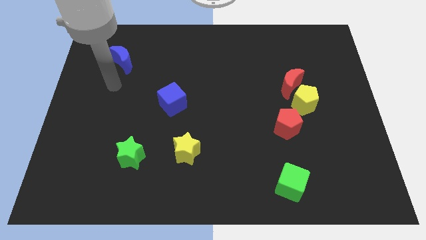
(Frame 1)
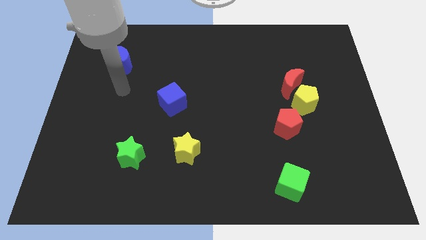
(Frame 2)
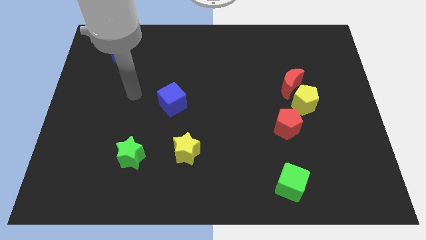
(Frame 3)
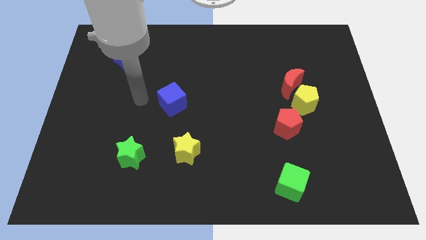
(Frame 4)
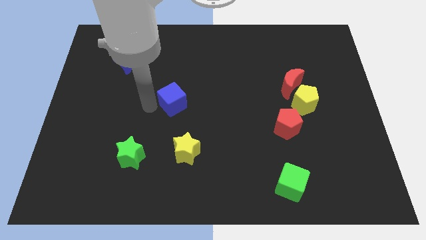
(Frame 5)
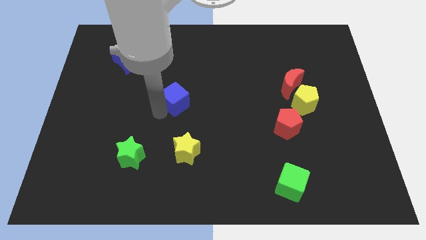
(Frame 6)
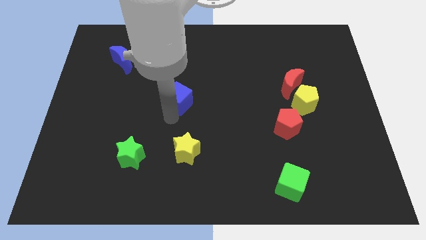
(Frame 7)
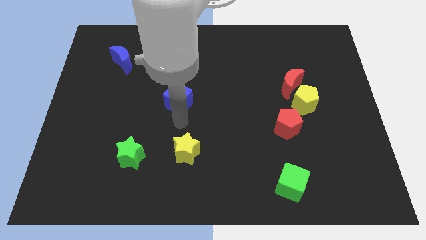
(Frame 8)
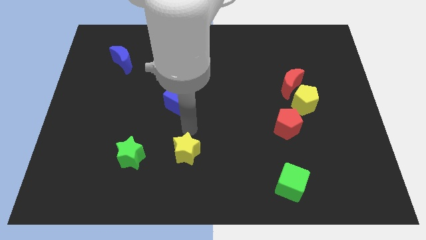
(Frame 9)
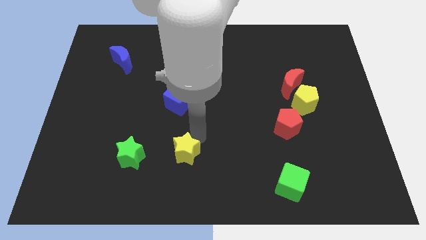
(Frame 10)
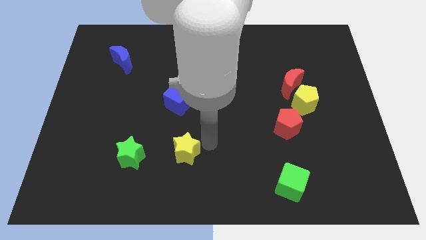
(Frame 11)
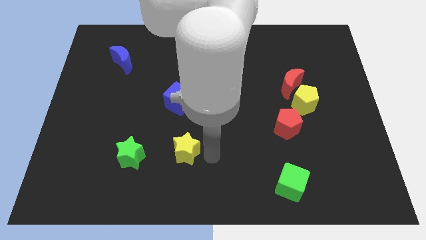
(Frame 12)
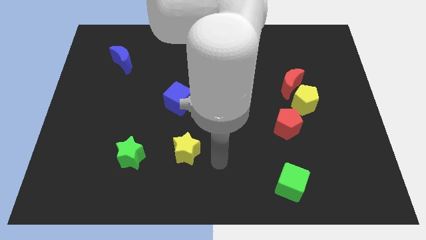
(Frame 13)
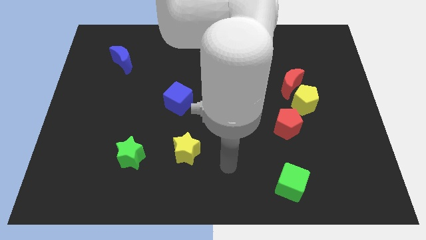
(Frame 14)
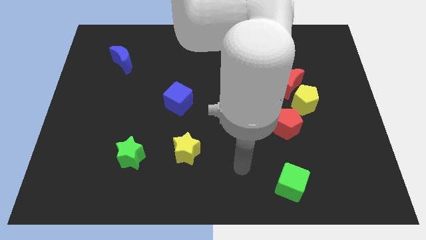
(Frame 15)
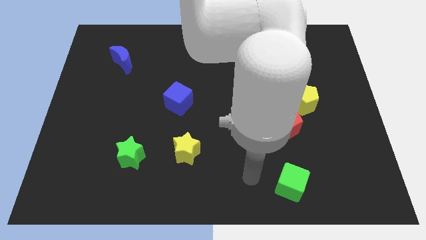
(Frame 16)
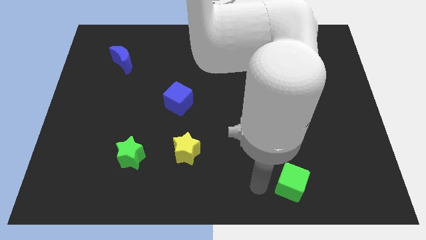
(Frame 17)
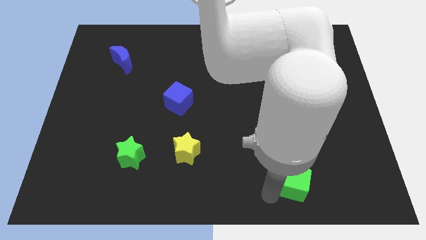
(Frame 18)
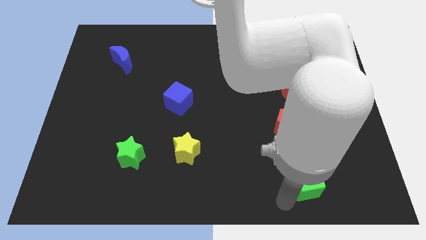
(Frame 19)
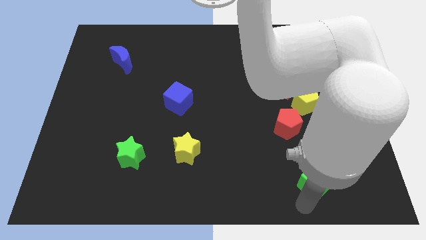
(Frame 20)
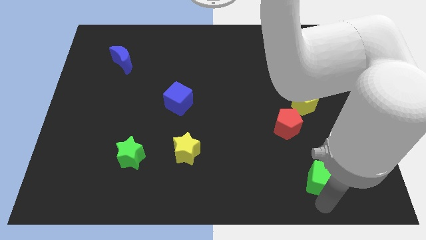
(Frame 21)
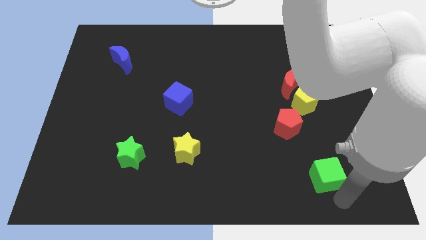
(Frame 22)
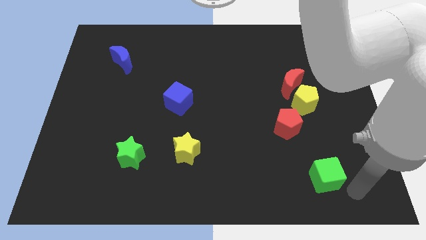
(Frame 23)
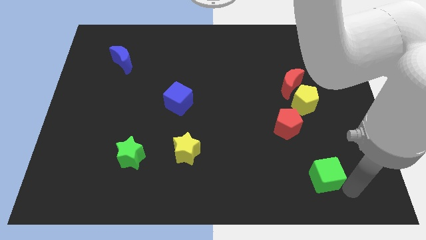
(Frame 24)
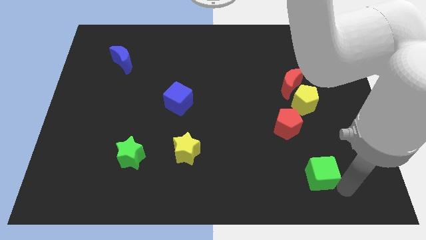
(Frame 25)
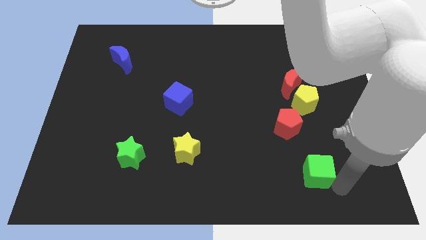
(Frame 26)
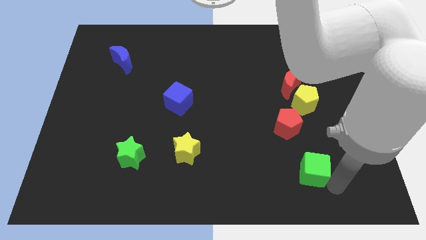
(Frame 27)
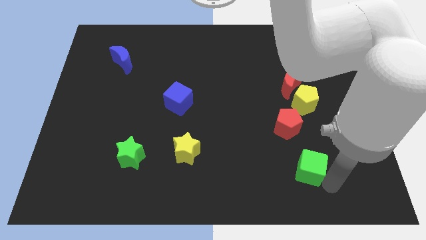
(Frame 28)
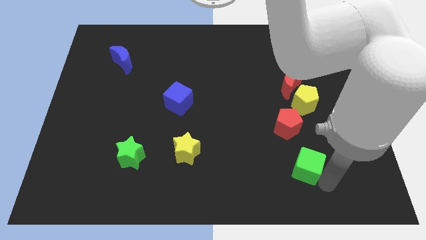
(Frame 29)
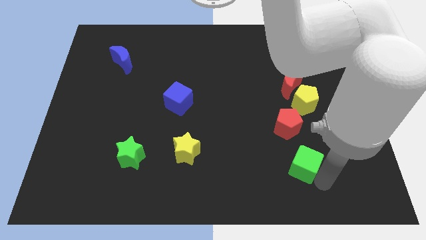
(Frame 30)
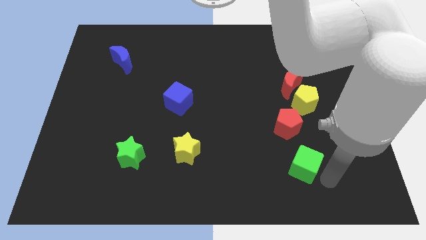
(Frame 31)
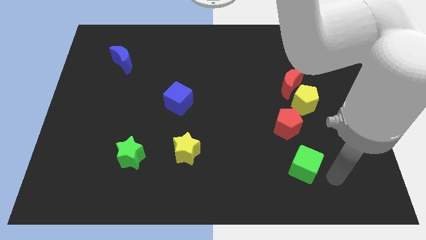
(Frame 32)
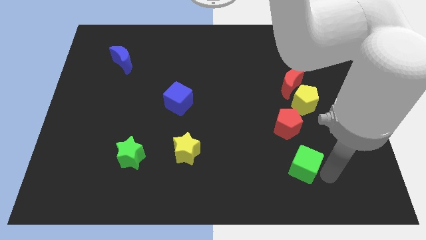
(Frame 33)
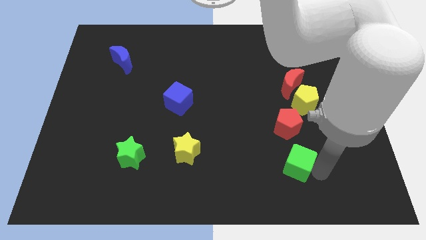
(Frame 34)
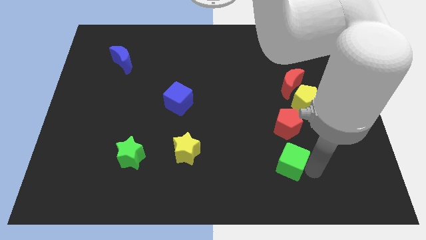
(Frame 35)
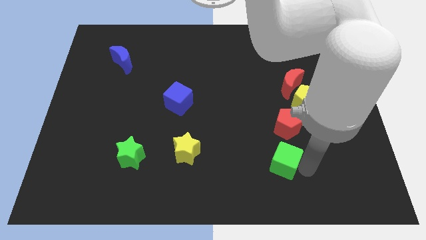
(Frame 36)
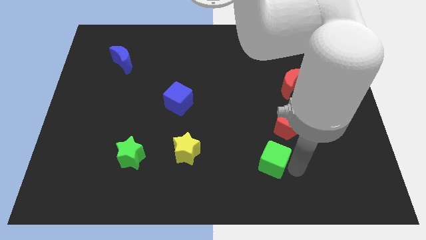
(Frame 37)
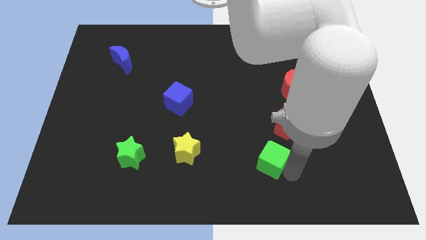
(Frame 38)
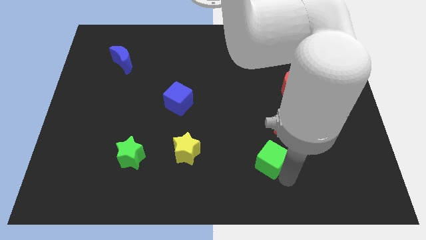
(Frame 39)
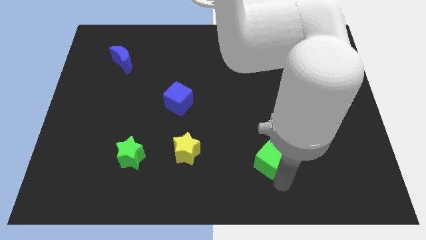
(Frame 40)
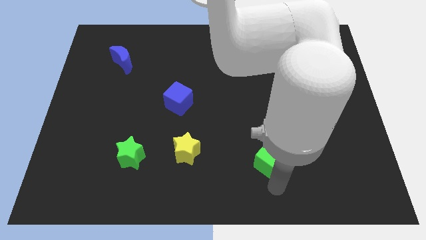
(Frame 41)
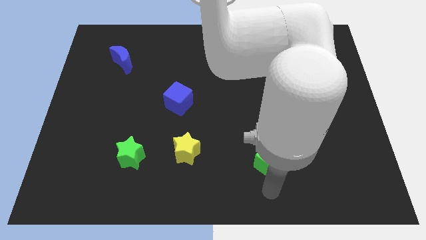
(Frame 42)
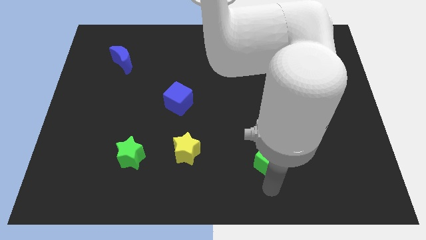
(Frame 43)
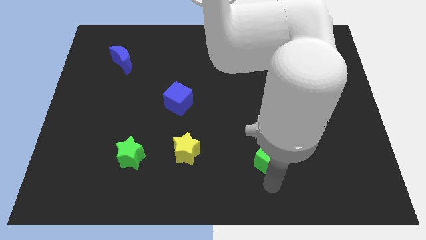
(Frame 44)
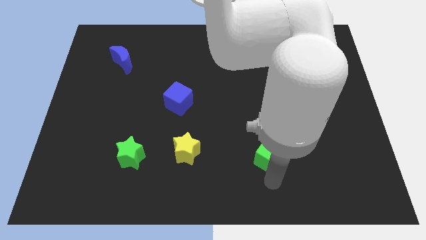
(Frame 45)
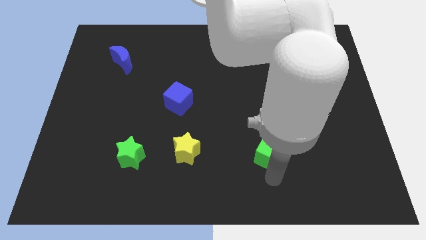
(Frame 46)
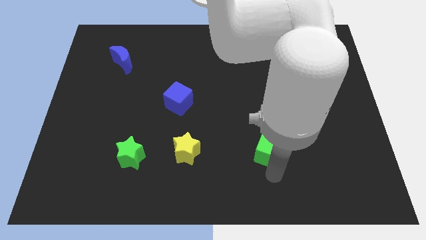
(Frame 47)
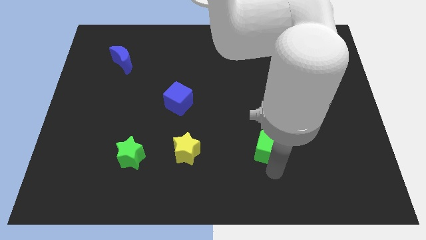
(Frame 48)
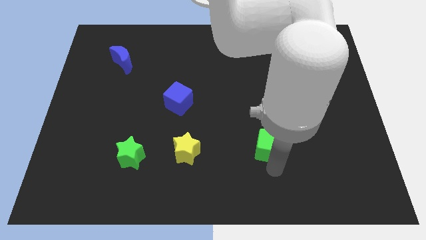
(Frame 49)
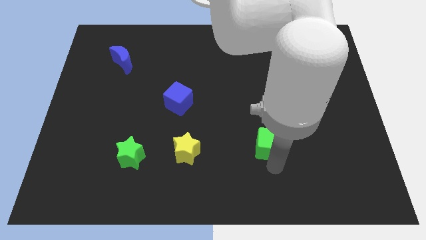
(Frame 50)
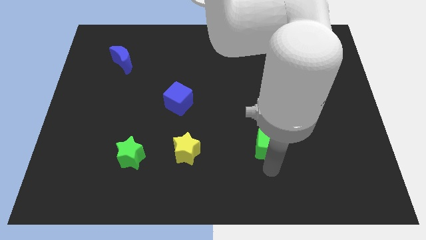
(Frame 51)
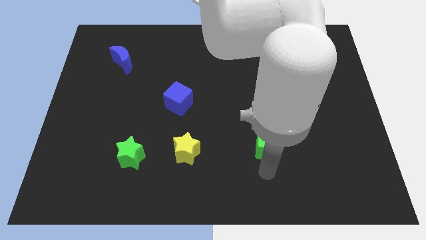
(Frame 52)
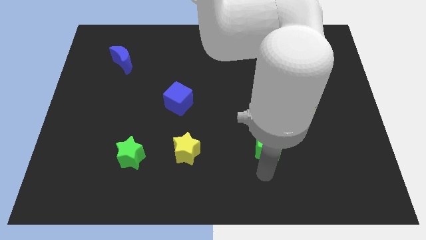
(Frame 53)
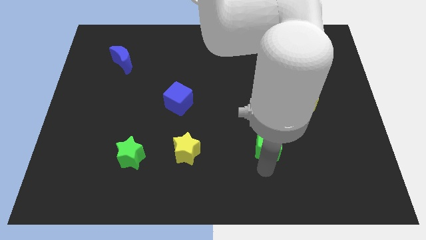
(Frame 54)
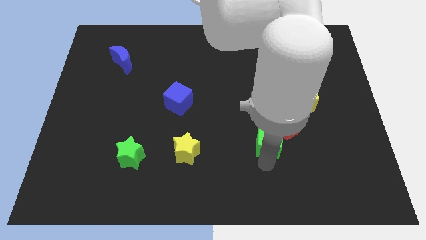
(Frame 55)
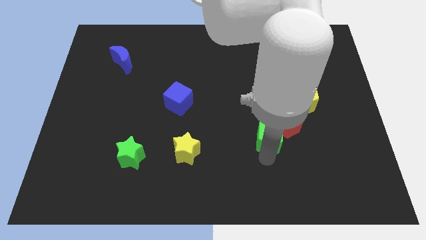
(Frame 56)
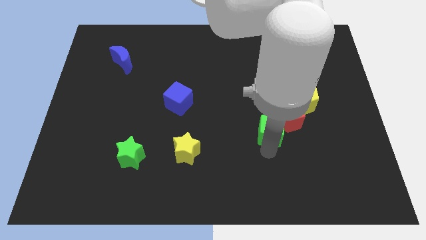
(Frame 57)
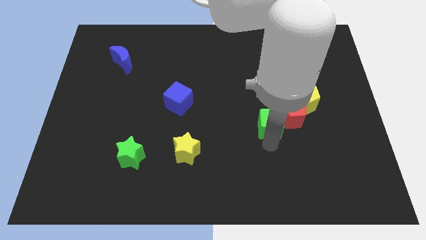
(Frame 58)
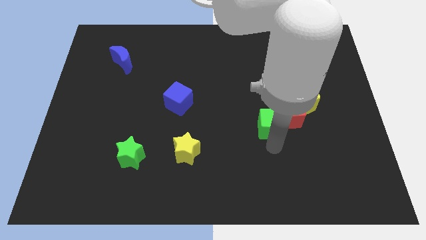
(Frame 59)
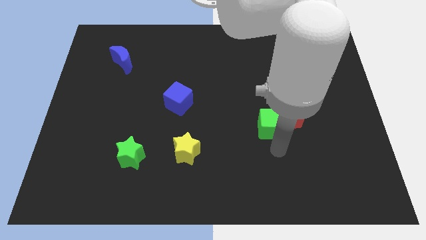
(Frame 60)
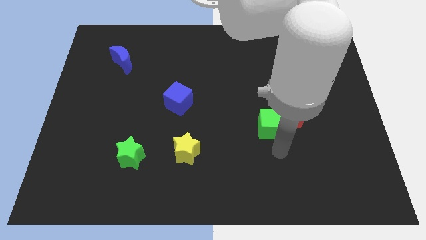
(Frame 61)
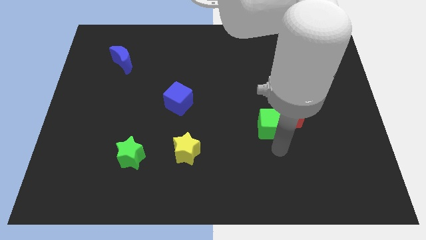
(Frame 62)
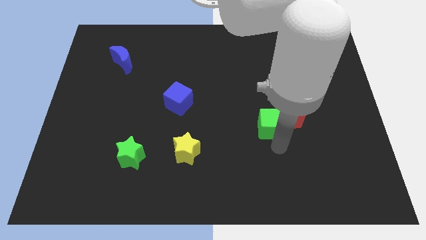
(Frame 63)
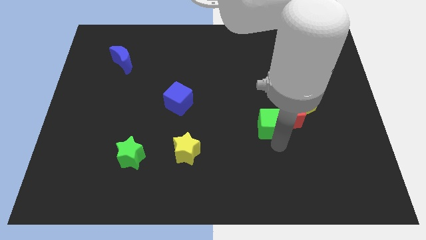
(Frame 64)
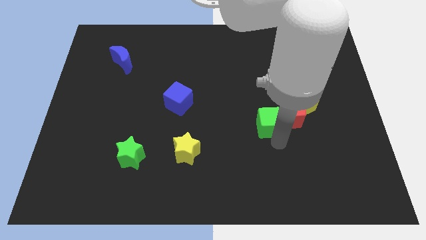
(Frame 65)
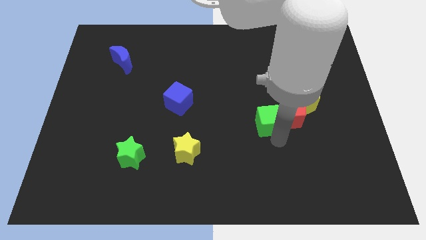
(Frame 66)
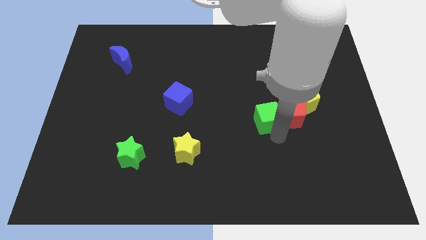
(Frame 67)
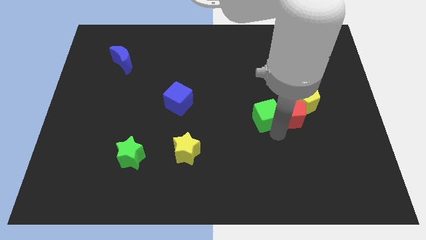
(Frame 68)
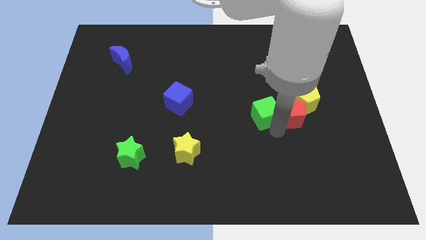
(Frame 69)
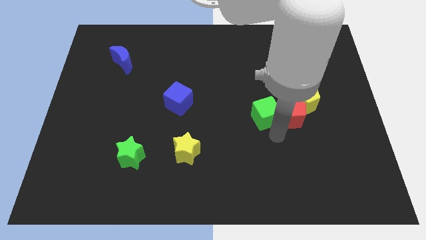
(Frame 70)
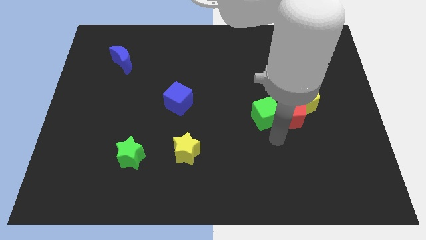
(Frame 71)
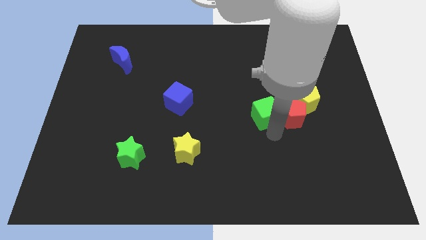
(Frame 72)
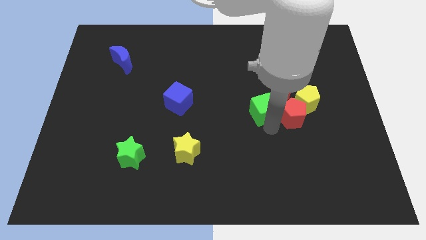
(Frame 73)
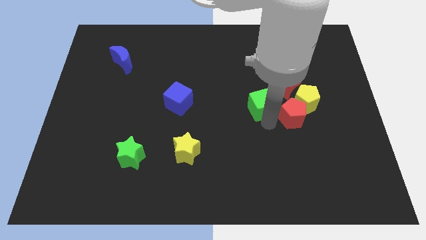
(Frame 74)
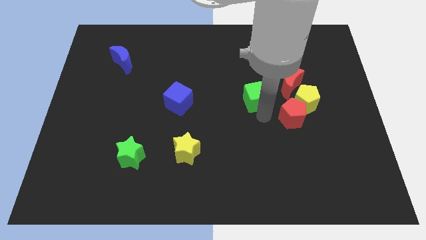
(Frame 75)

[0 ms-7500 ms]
push the green cube up

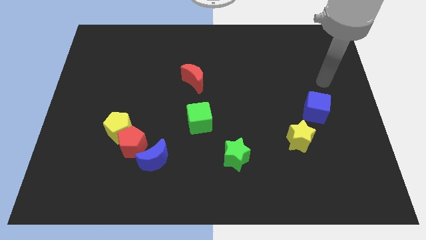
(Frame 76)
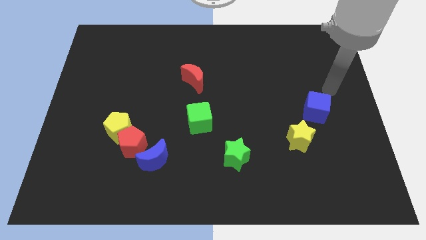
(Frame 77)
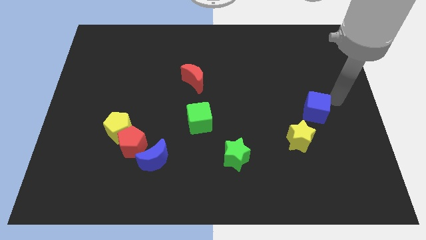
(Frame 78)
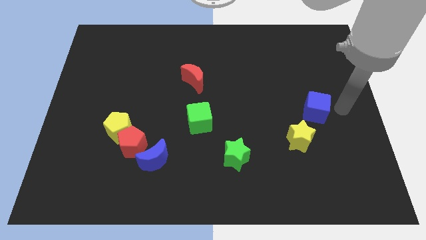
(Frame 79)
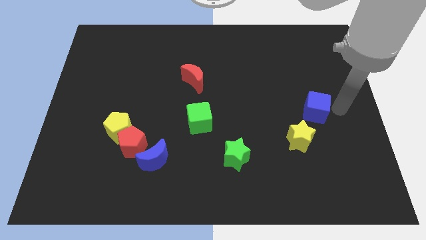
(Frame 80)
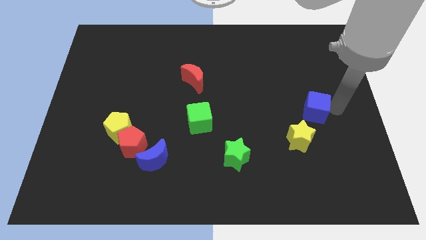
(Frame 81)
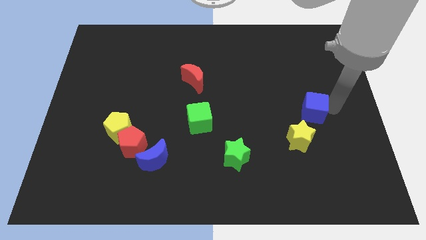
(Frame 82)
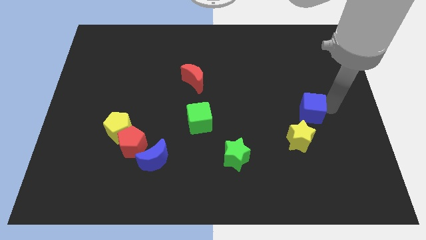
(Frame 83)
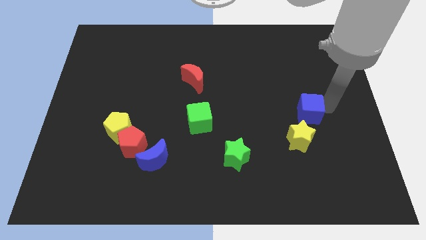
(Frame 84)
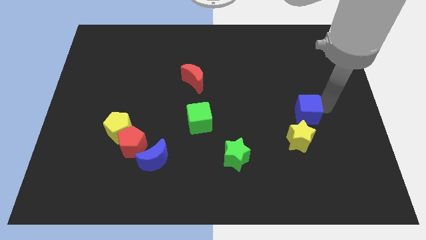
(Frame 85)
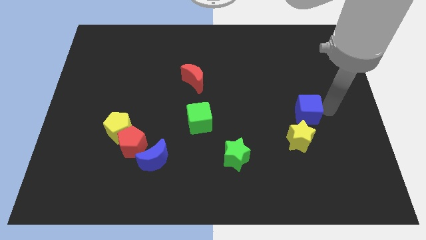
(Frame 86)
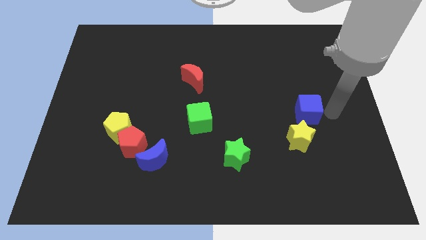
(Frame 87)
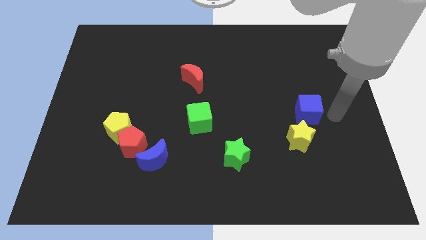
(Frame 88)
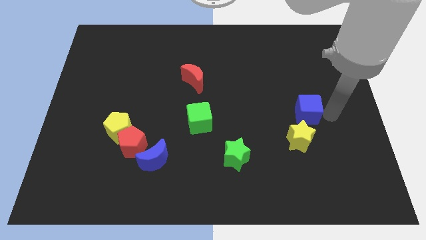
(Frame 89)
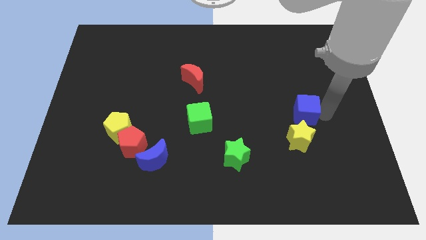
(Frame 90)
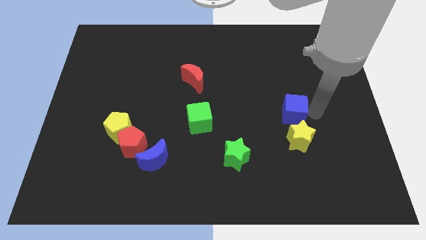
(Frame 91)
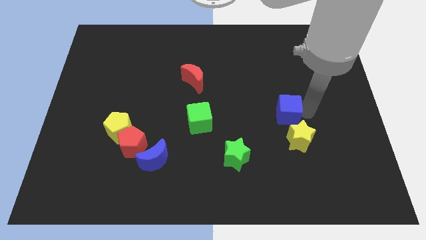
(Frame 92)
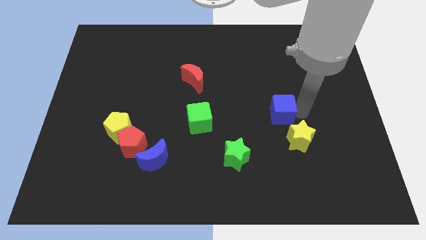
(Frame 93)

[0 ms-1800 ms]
move the blue cube to the left a little
